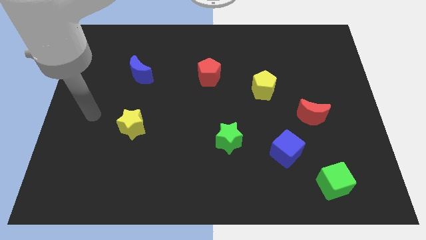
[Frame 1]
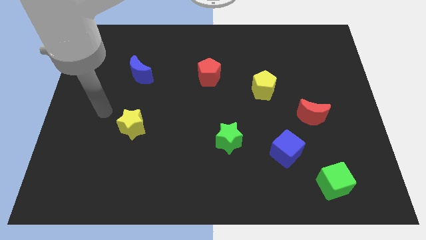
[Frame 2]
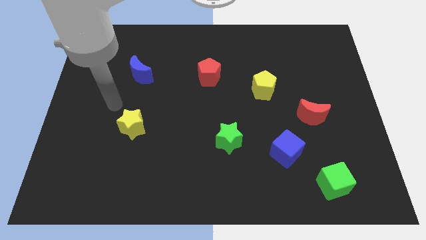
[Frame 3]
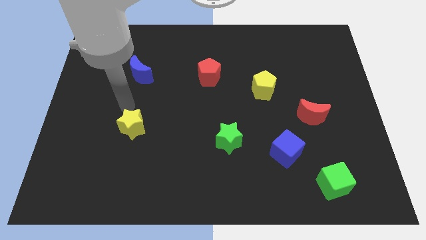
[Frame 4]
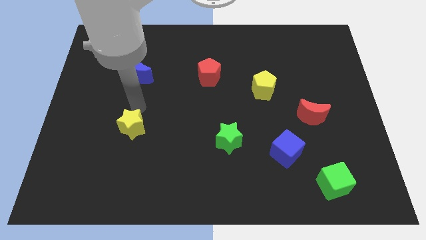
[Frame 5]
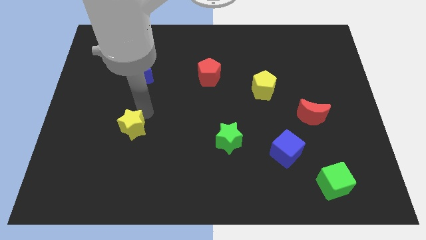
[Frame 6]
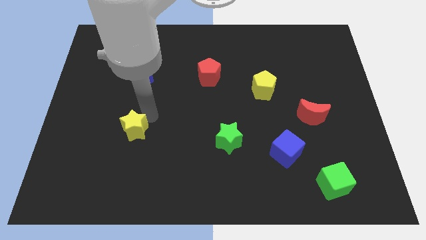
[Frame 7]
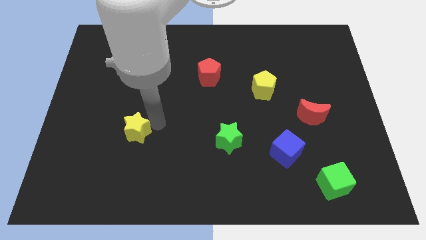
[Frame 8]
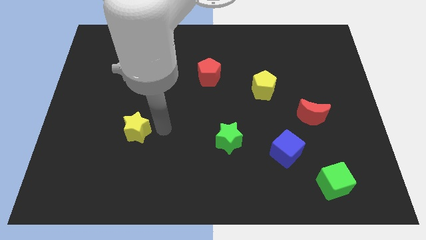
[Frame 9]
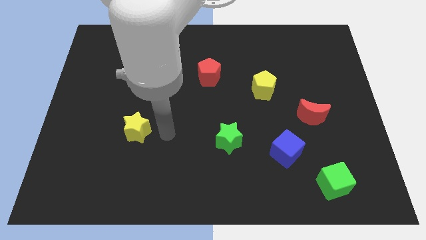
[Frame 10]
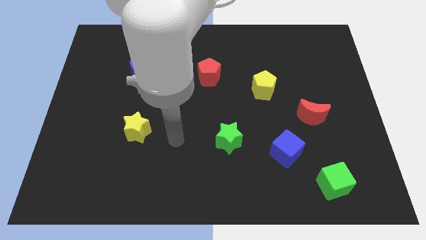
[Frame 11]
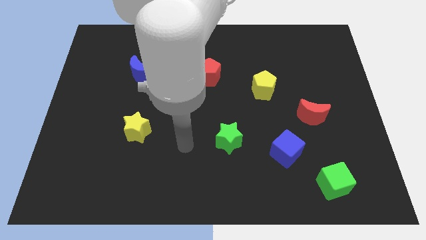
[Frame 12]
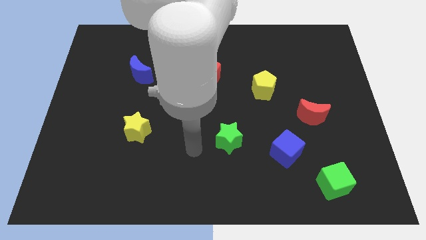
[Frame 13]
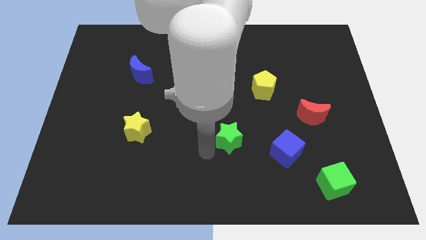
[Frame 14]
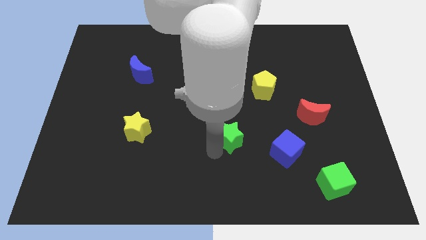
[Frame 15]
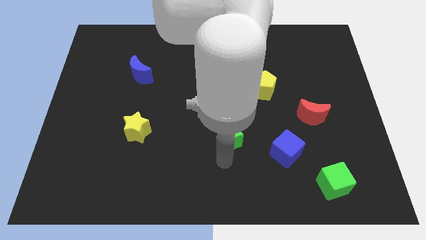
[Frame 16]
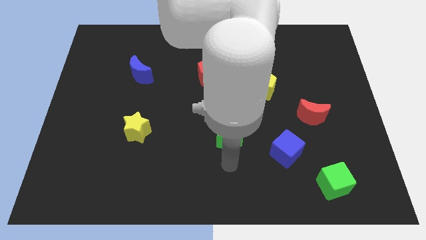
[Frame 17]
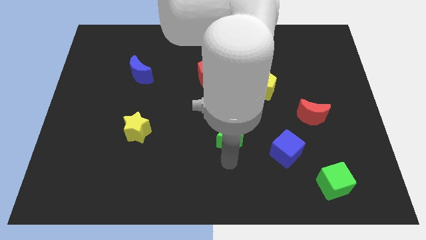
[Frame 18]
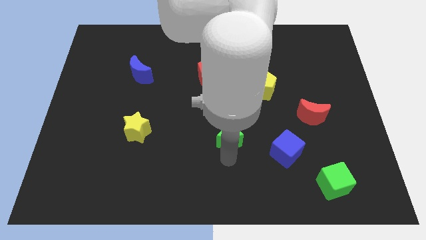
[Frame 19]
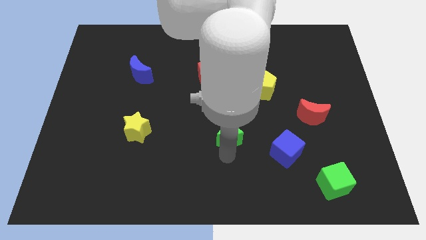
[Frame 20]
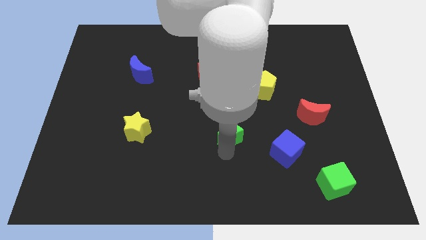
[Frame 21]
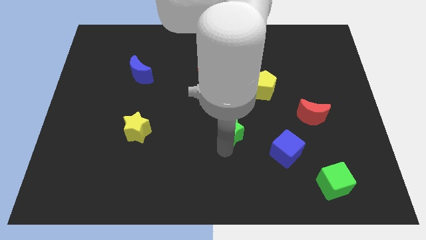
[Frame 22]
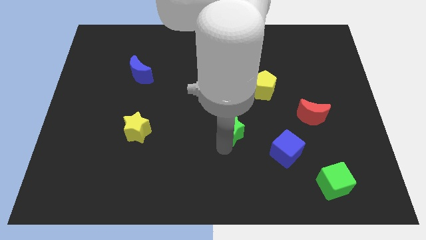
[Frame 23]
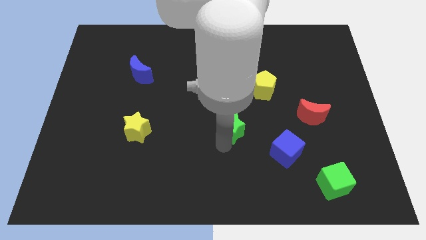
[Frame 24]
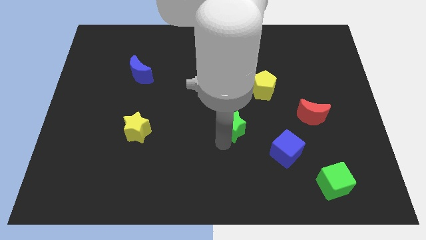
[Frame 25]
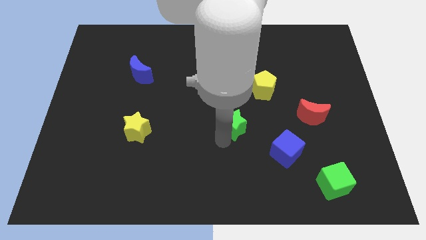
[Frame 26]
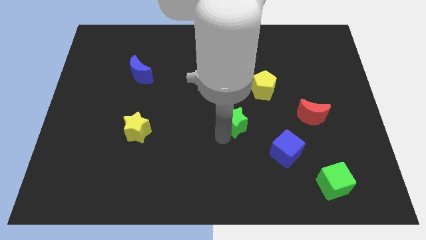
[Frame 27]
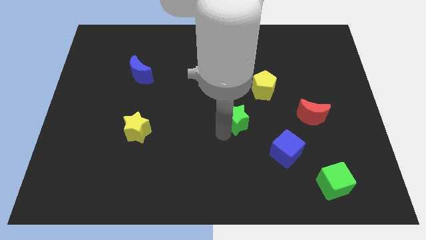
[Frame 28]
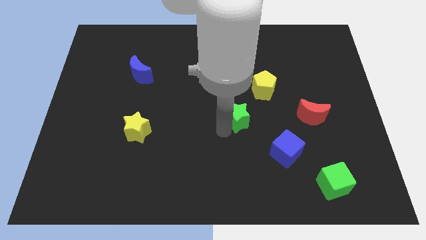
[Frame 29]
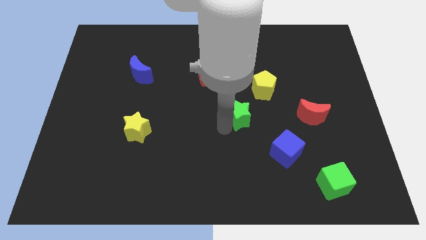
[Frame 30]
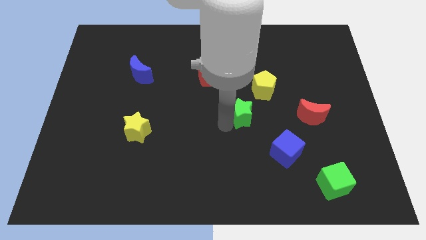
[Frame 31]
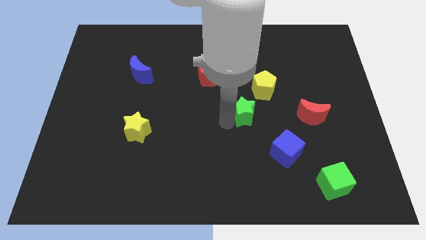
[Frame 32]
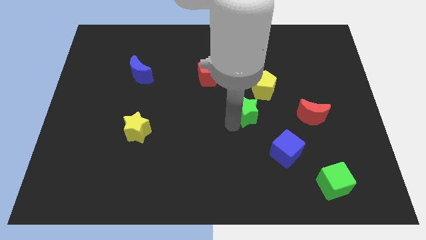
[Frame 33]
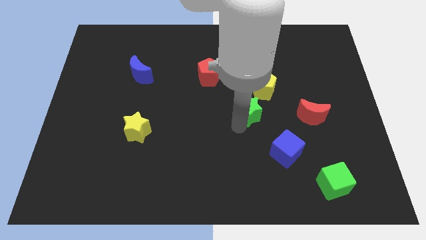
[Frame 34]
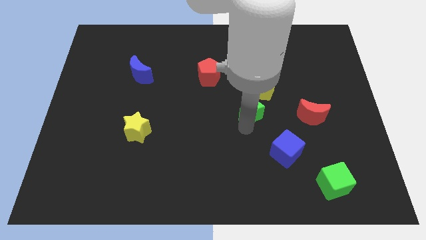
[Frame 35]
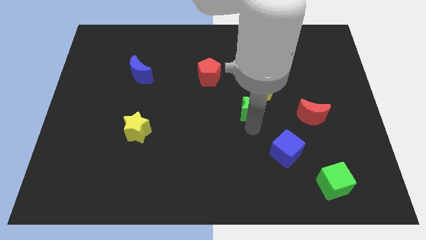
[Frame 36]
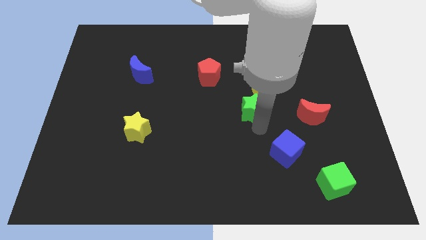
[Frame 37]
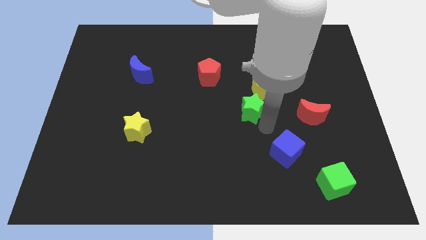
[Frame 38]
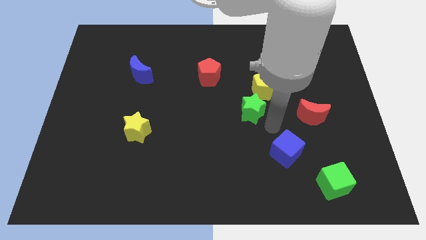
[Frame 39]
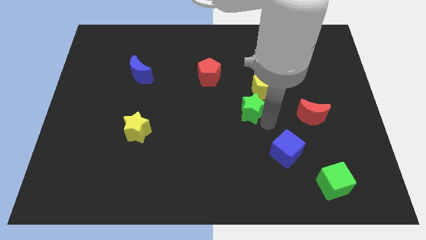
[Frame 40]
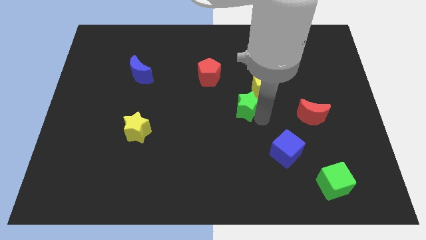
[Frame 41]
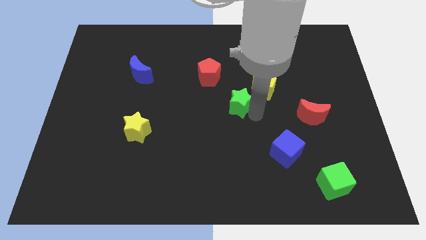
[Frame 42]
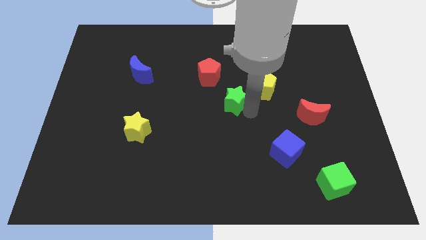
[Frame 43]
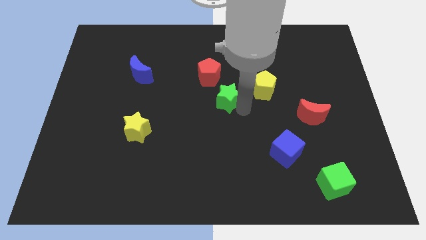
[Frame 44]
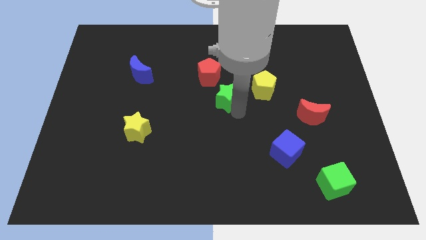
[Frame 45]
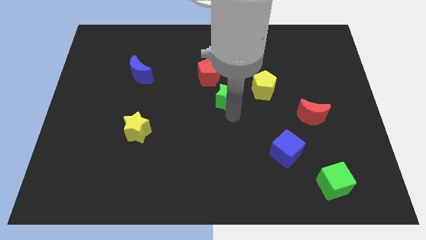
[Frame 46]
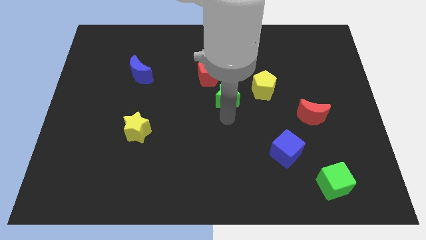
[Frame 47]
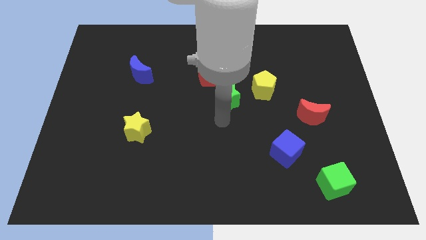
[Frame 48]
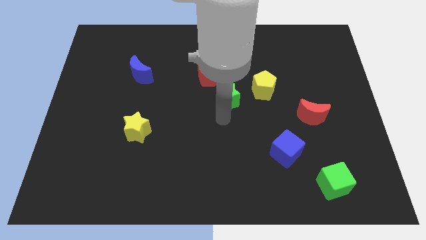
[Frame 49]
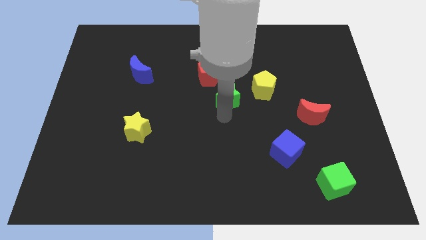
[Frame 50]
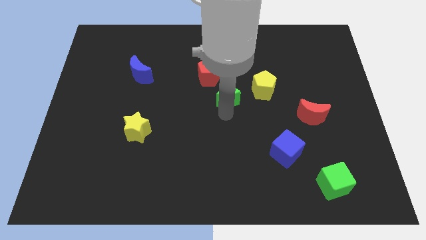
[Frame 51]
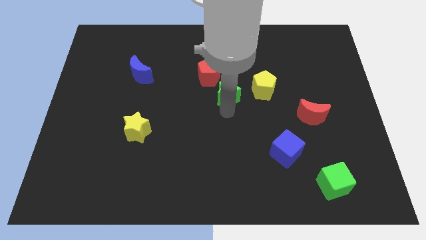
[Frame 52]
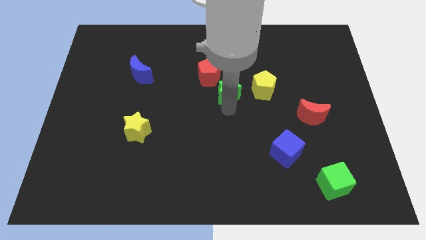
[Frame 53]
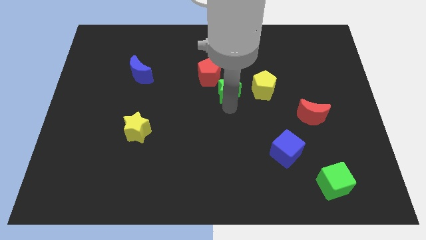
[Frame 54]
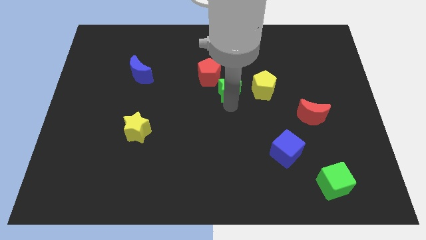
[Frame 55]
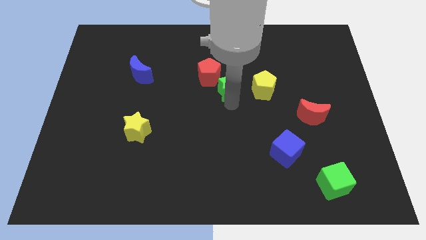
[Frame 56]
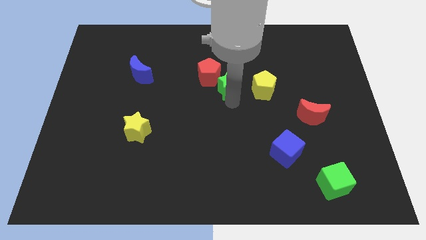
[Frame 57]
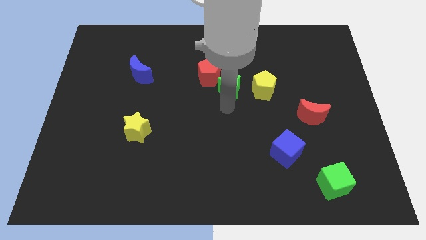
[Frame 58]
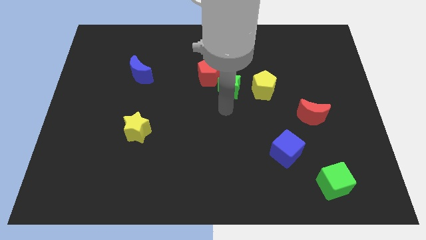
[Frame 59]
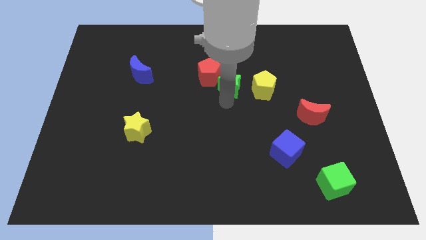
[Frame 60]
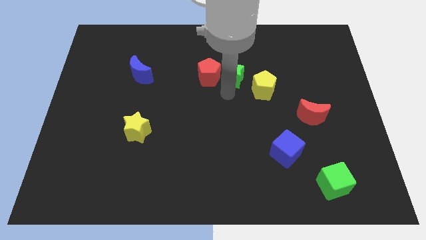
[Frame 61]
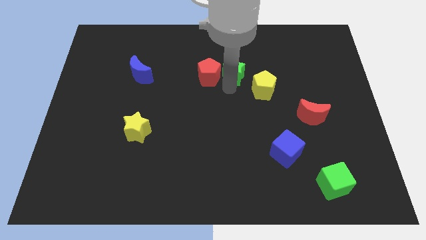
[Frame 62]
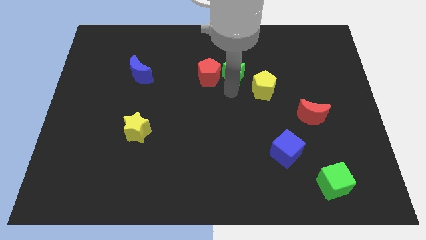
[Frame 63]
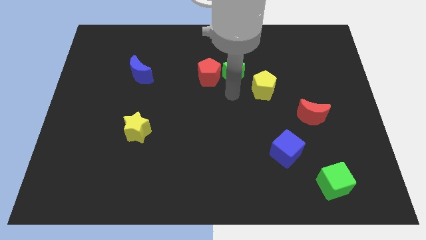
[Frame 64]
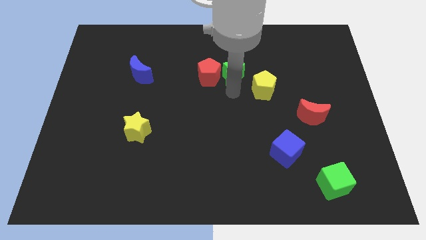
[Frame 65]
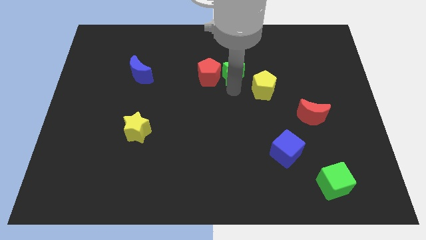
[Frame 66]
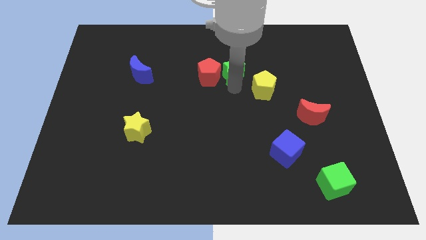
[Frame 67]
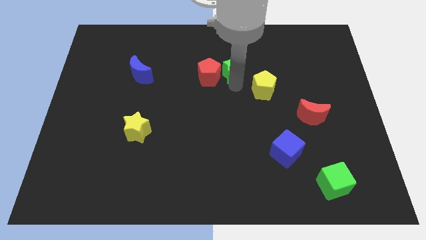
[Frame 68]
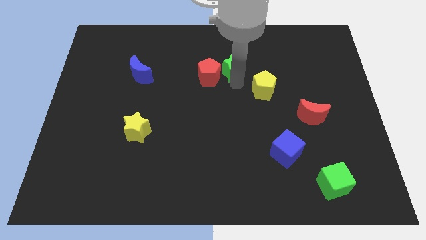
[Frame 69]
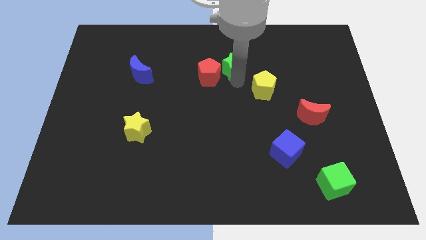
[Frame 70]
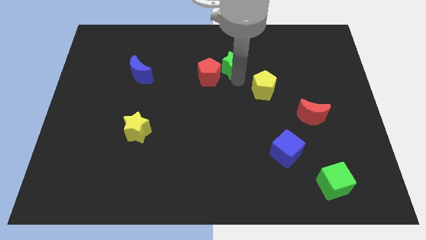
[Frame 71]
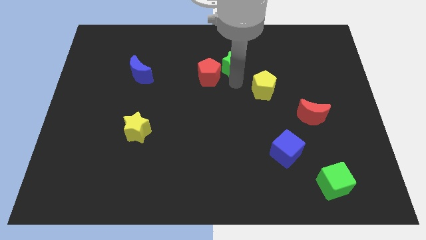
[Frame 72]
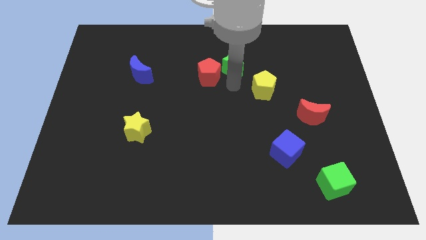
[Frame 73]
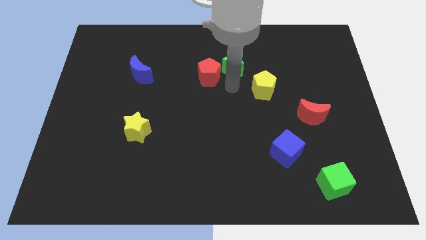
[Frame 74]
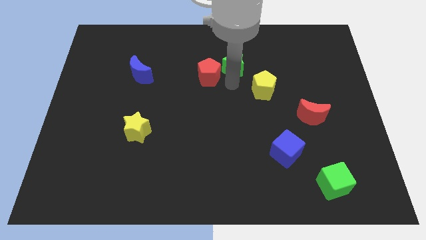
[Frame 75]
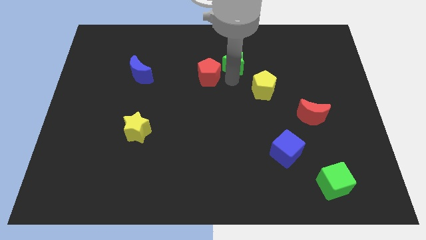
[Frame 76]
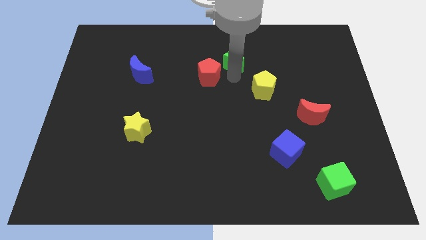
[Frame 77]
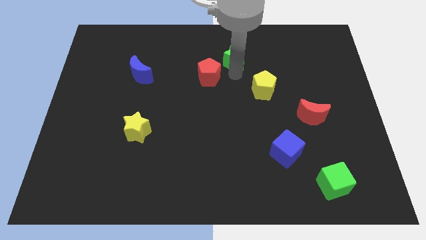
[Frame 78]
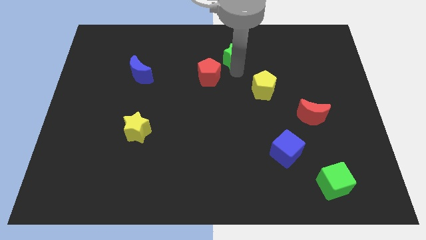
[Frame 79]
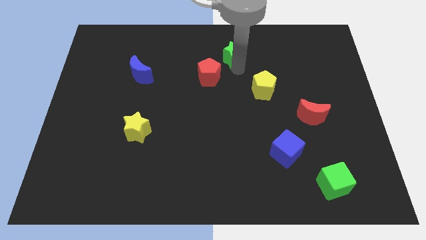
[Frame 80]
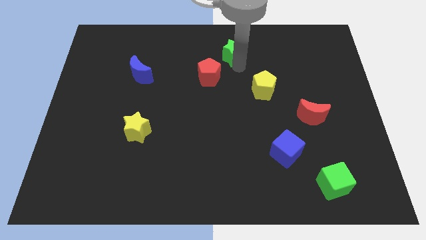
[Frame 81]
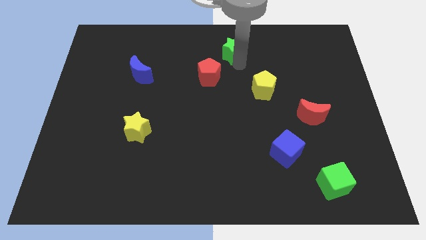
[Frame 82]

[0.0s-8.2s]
move the green star to the top
